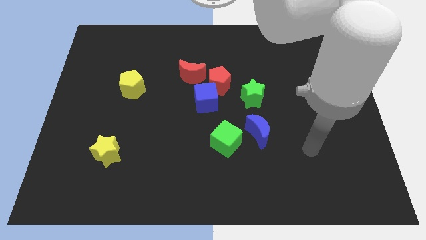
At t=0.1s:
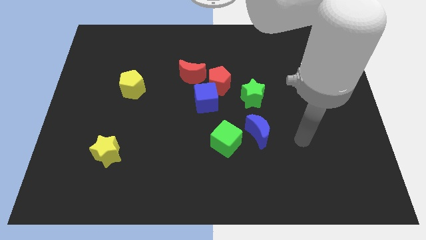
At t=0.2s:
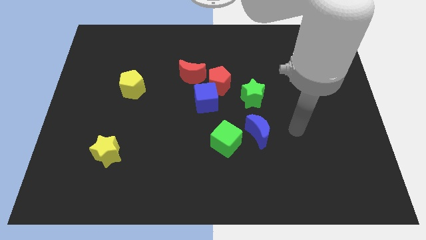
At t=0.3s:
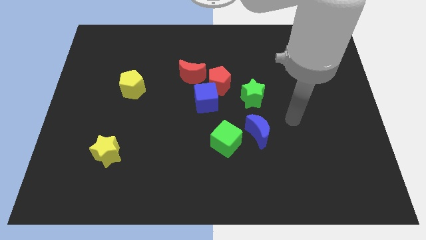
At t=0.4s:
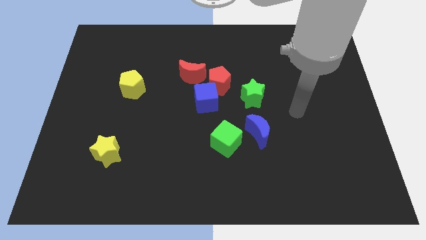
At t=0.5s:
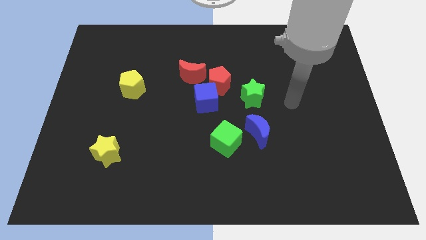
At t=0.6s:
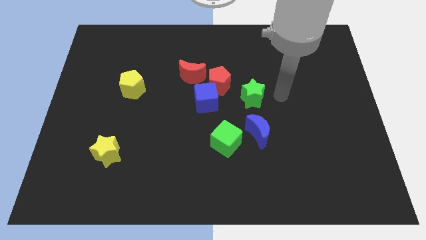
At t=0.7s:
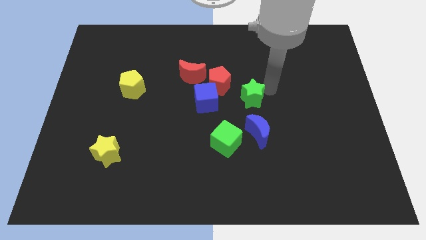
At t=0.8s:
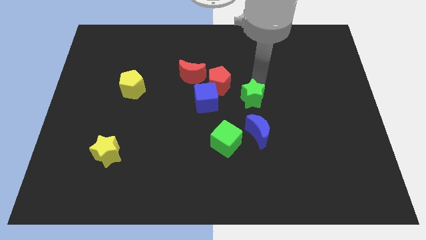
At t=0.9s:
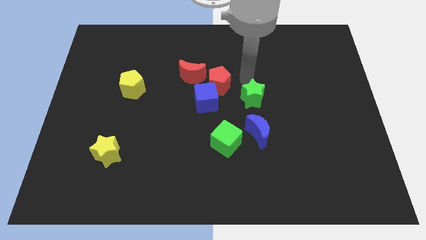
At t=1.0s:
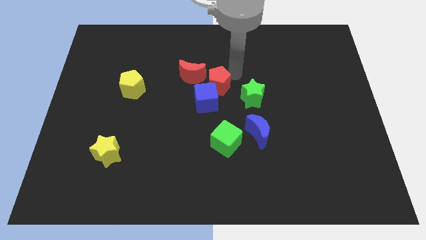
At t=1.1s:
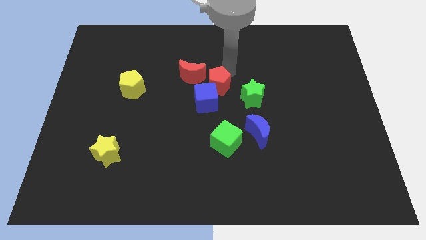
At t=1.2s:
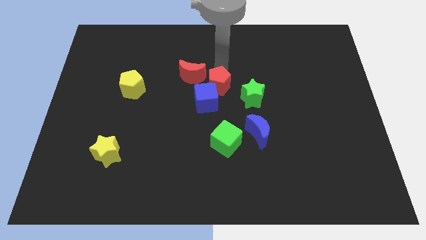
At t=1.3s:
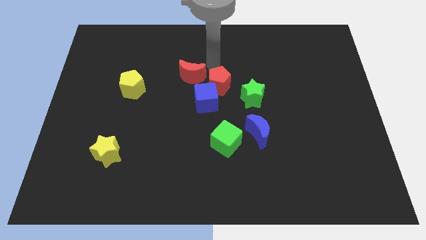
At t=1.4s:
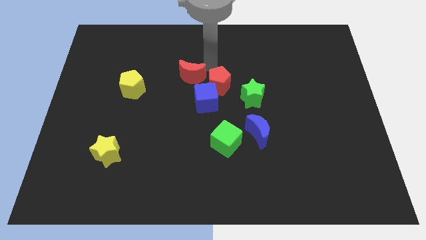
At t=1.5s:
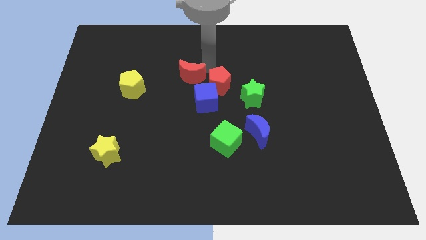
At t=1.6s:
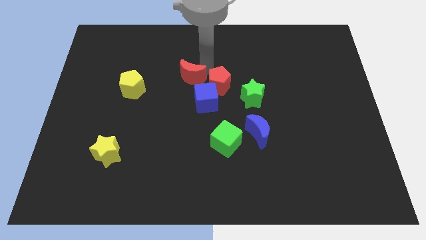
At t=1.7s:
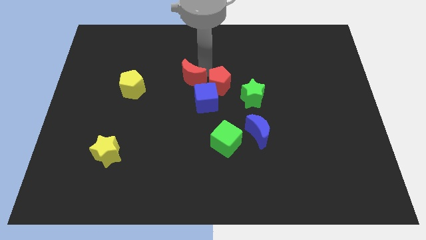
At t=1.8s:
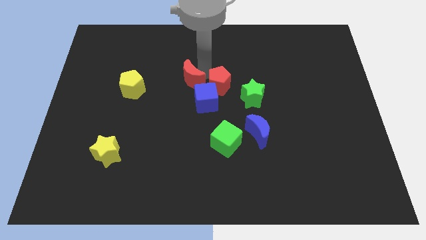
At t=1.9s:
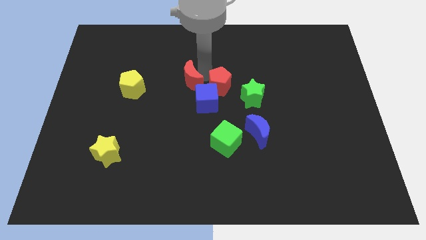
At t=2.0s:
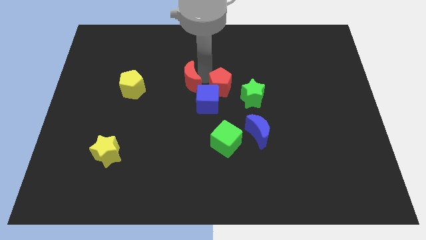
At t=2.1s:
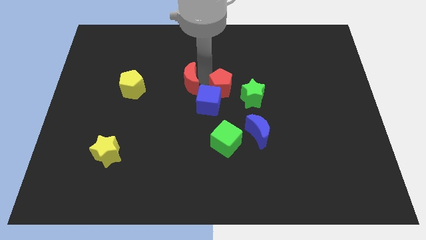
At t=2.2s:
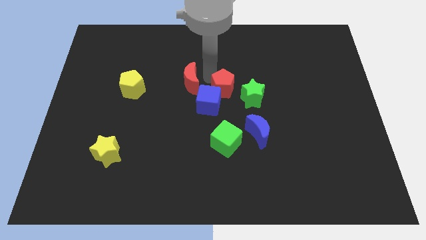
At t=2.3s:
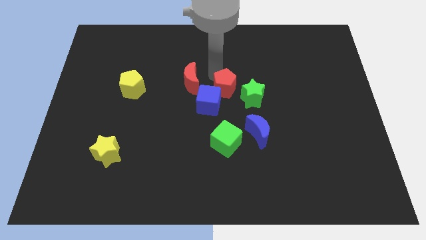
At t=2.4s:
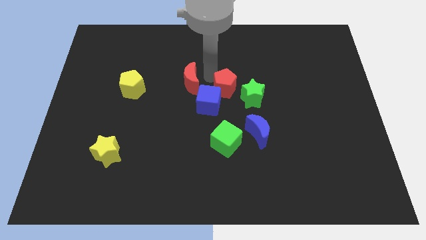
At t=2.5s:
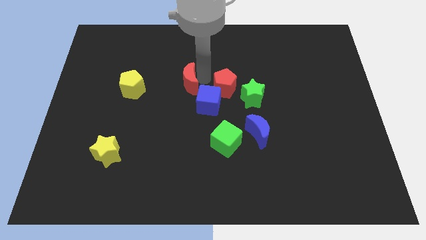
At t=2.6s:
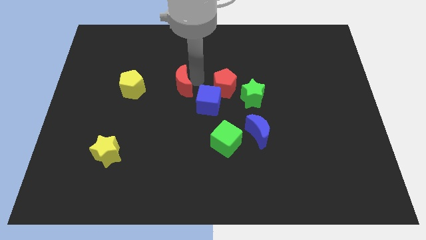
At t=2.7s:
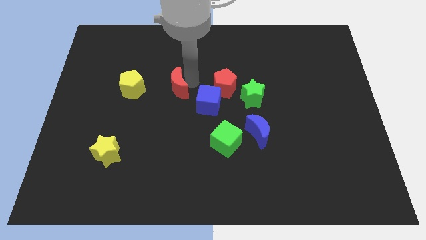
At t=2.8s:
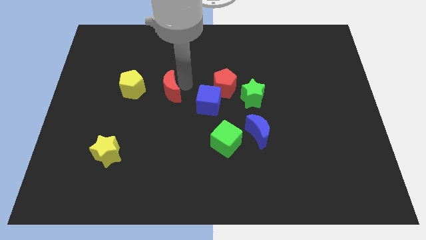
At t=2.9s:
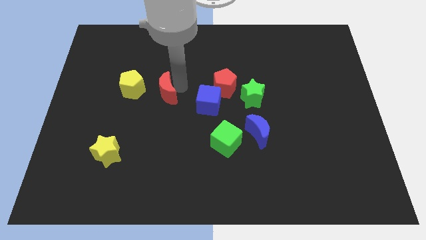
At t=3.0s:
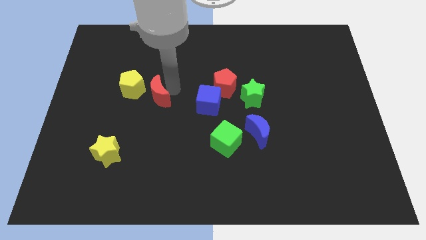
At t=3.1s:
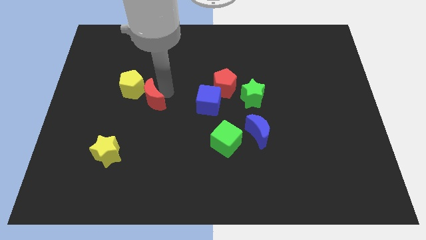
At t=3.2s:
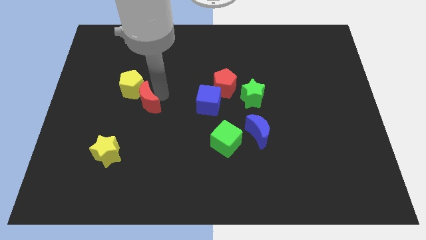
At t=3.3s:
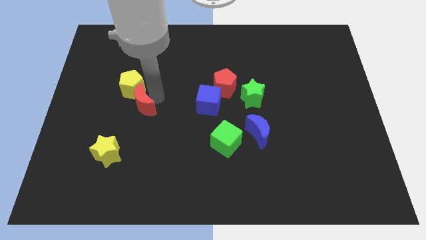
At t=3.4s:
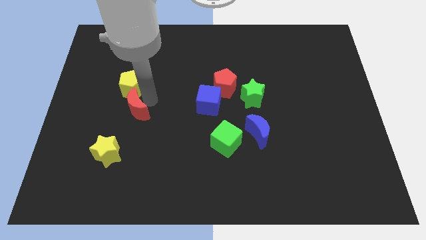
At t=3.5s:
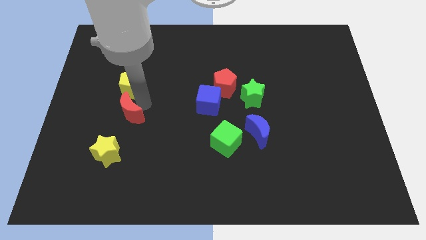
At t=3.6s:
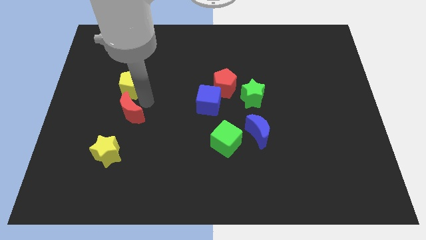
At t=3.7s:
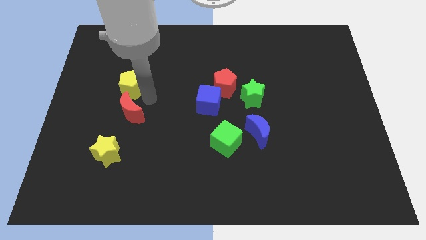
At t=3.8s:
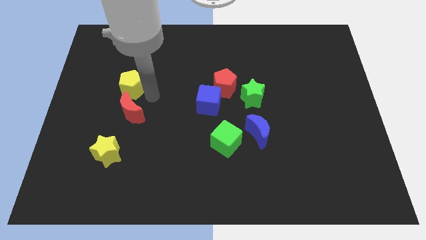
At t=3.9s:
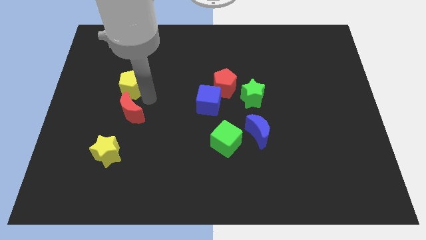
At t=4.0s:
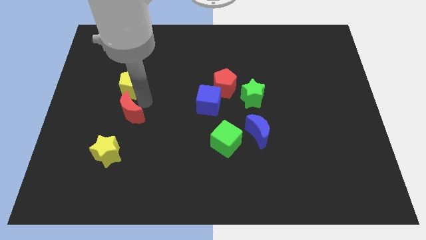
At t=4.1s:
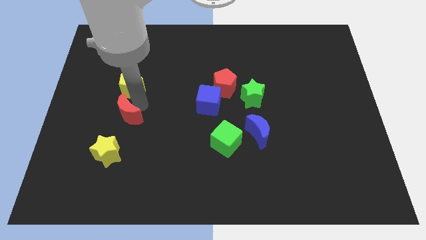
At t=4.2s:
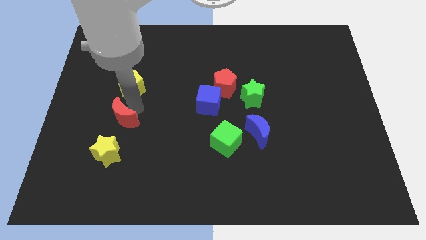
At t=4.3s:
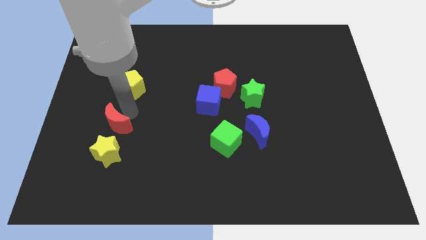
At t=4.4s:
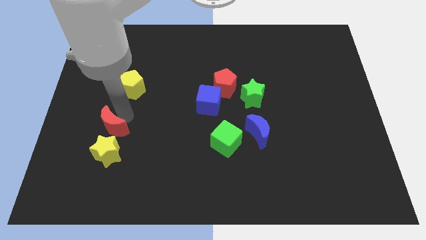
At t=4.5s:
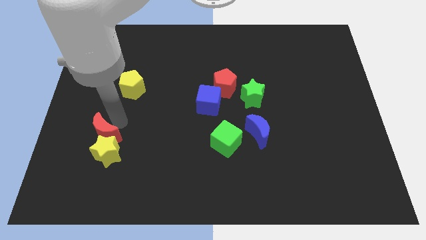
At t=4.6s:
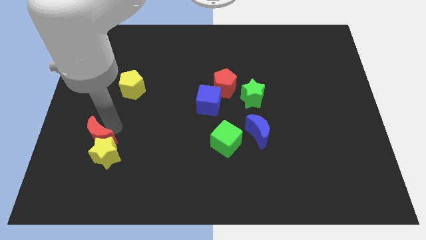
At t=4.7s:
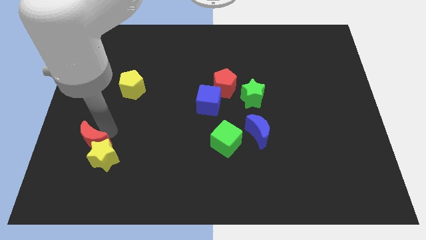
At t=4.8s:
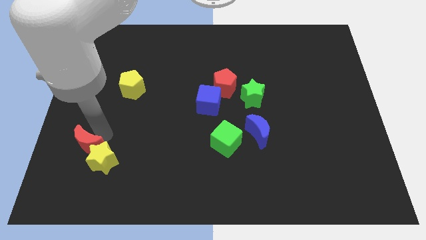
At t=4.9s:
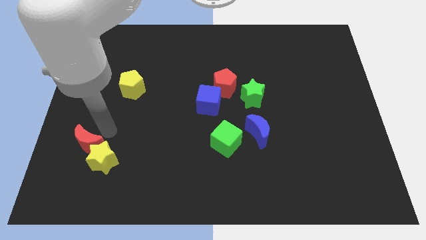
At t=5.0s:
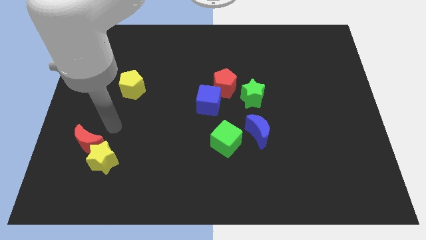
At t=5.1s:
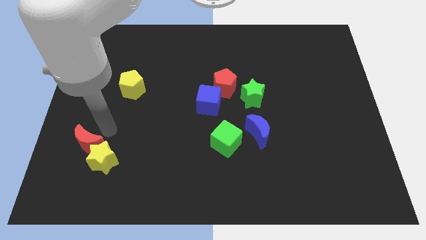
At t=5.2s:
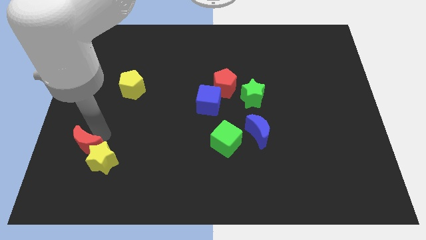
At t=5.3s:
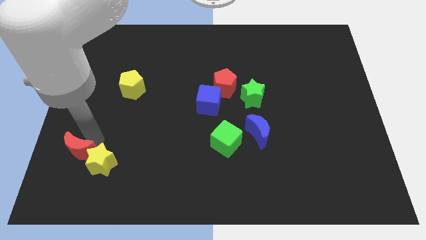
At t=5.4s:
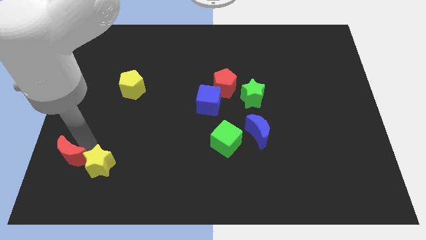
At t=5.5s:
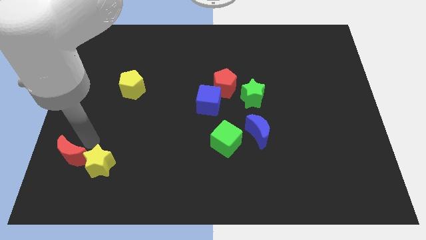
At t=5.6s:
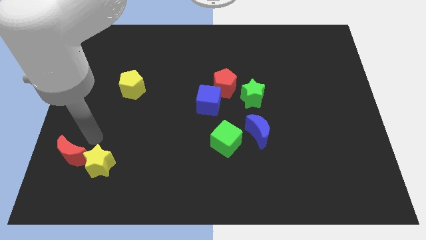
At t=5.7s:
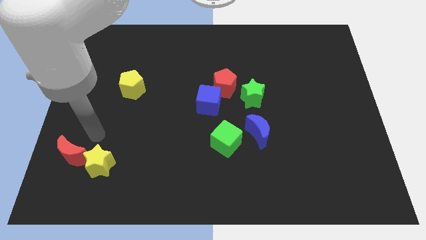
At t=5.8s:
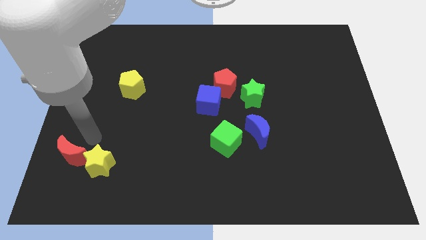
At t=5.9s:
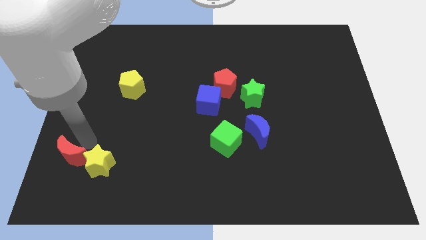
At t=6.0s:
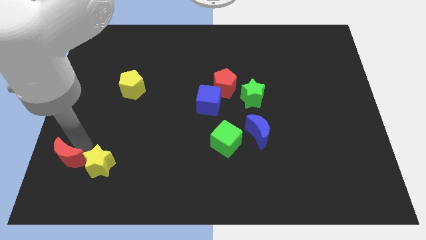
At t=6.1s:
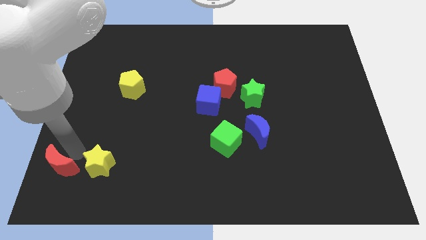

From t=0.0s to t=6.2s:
slide the red moon to the bottom left of the board
